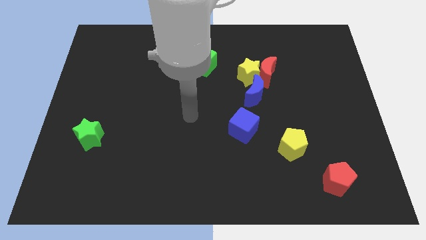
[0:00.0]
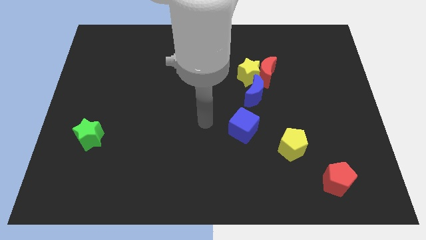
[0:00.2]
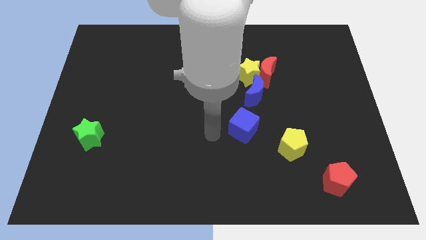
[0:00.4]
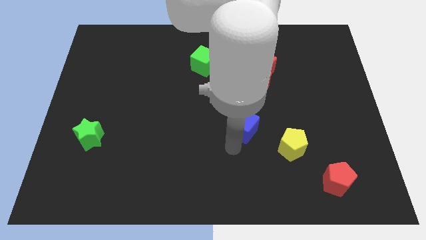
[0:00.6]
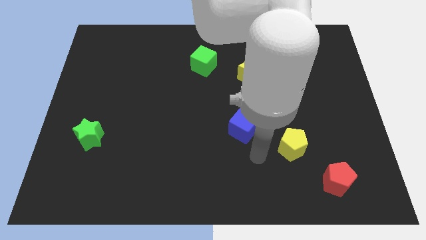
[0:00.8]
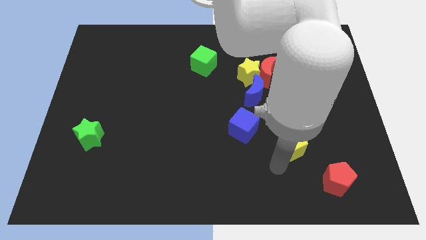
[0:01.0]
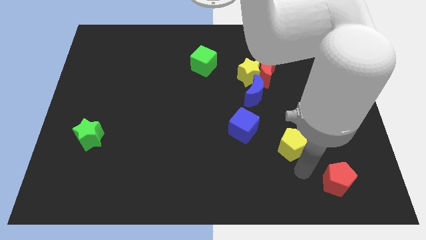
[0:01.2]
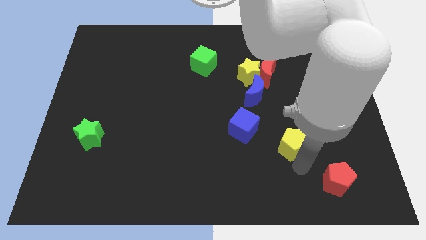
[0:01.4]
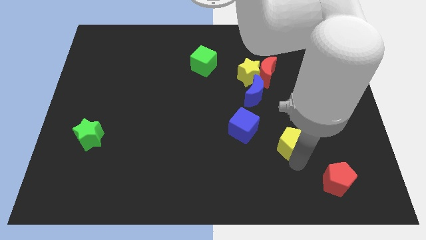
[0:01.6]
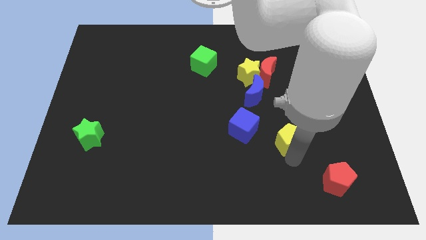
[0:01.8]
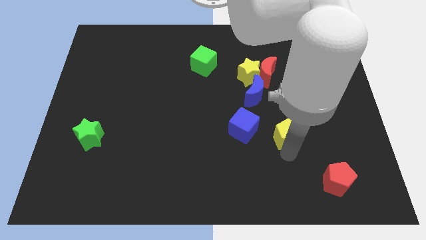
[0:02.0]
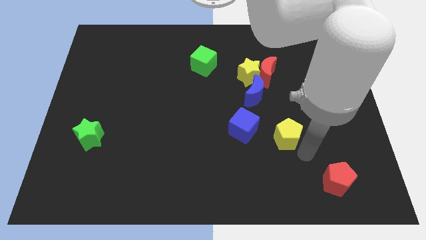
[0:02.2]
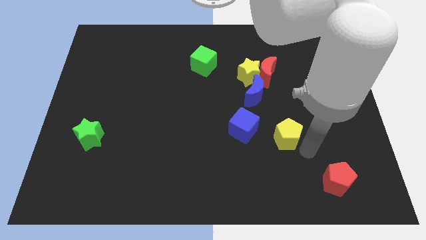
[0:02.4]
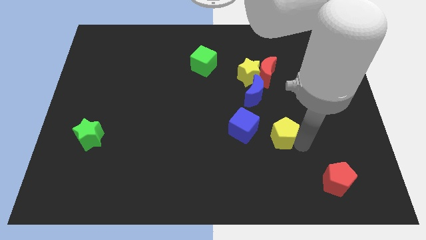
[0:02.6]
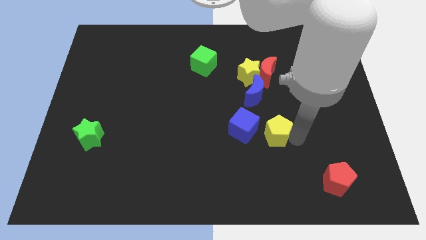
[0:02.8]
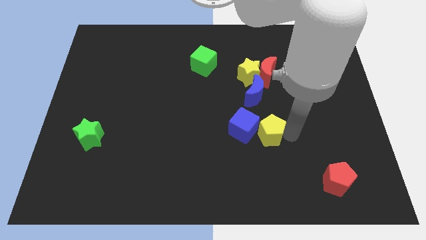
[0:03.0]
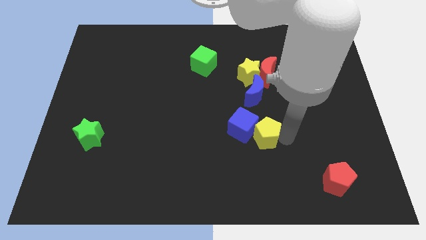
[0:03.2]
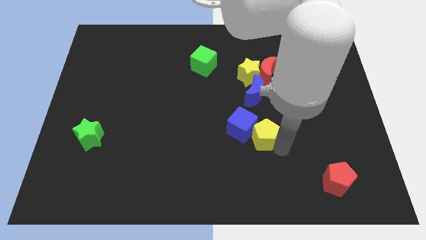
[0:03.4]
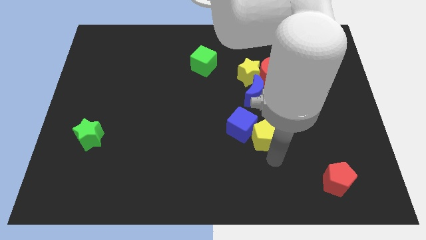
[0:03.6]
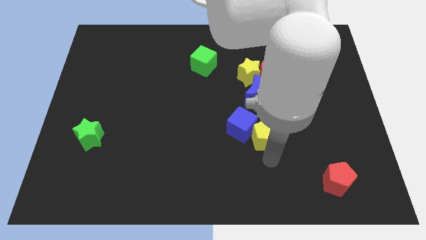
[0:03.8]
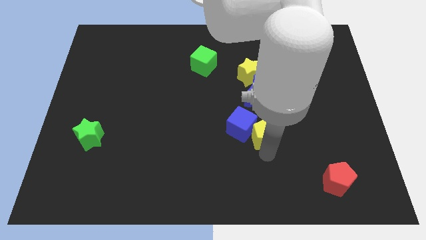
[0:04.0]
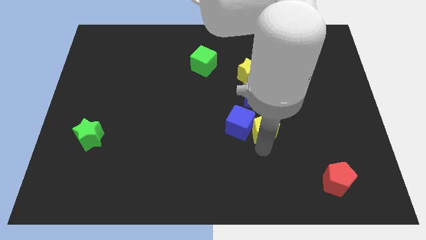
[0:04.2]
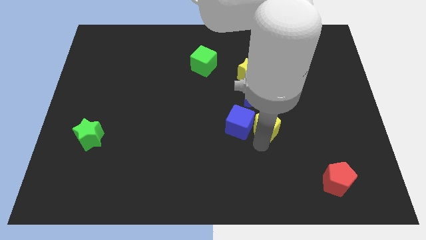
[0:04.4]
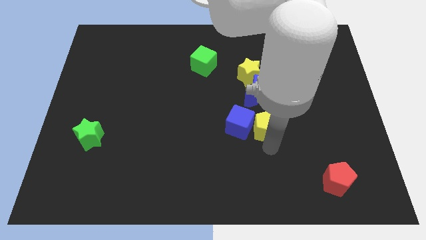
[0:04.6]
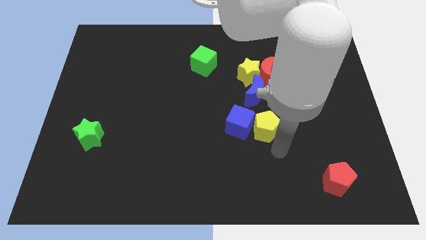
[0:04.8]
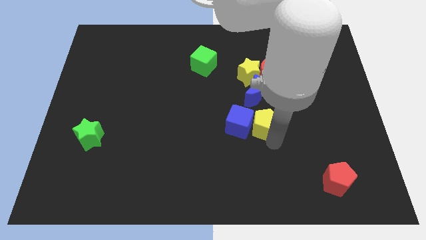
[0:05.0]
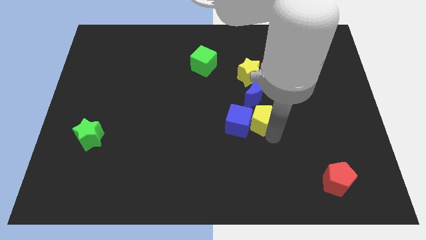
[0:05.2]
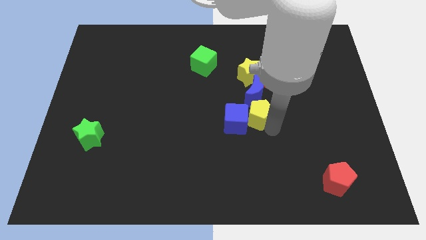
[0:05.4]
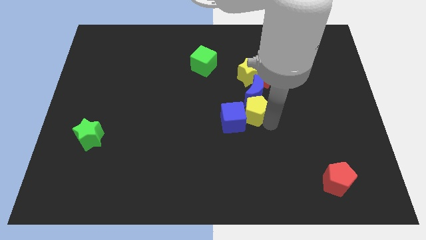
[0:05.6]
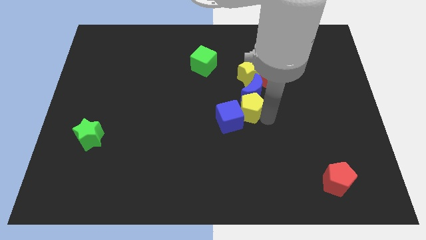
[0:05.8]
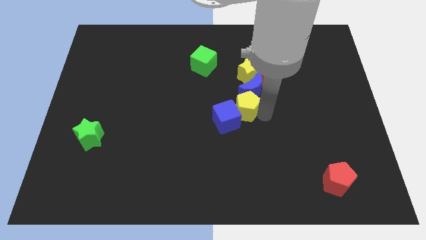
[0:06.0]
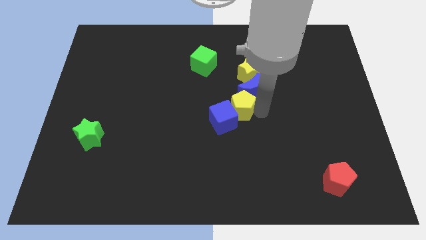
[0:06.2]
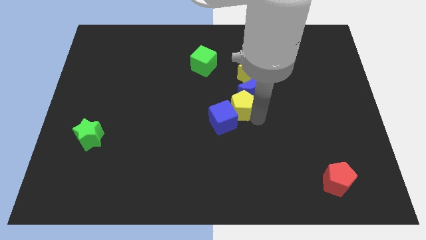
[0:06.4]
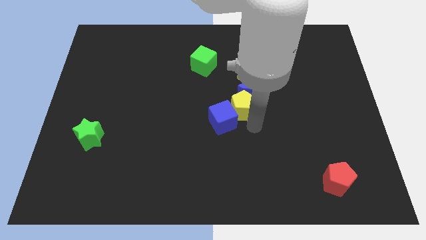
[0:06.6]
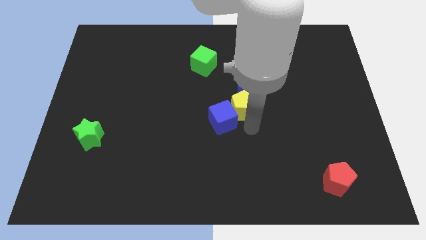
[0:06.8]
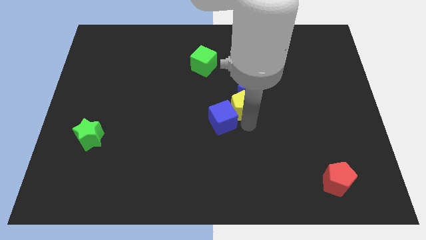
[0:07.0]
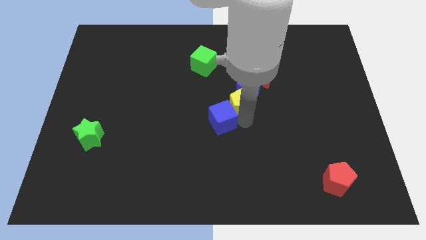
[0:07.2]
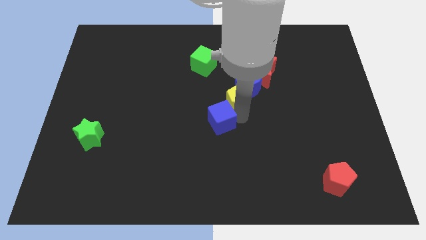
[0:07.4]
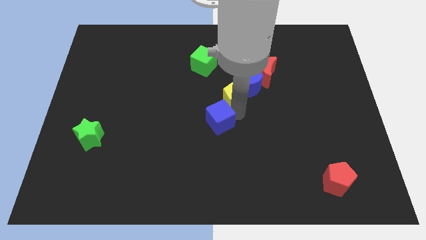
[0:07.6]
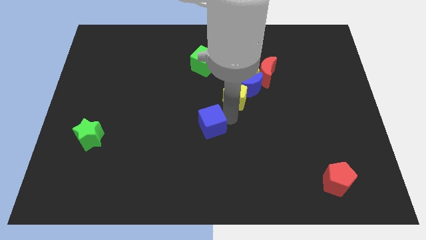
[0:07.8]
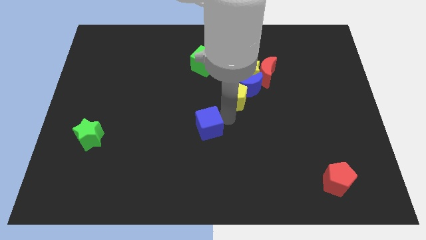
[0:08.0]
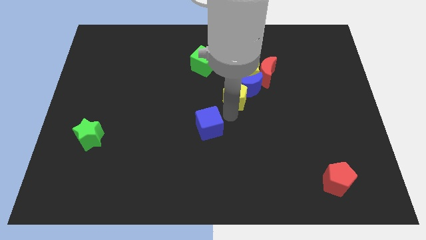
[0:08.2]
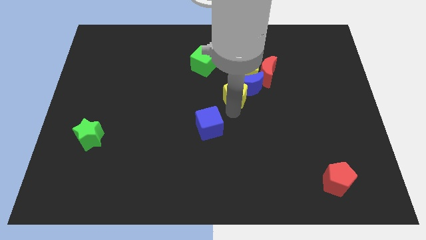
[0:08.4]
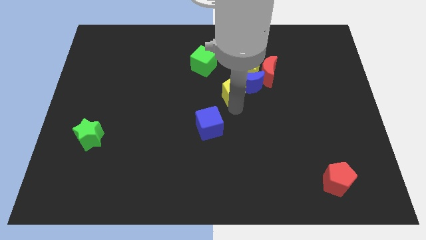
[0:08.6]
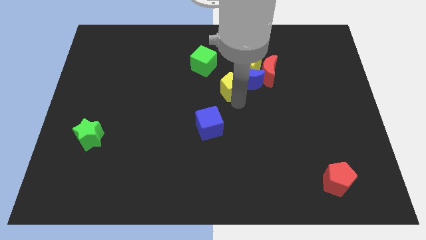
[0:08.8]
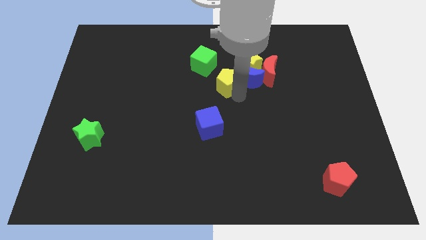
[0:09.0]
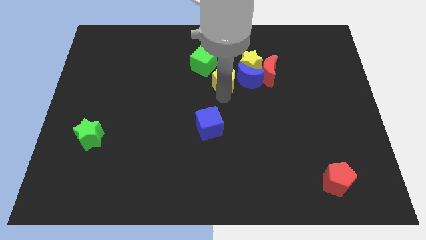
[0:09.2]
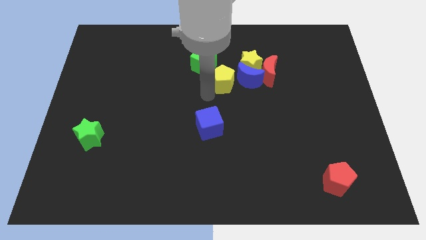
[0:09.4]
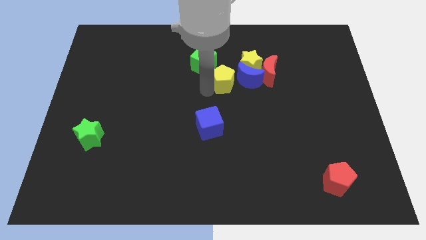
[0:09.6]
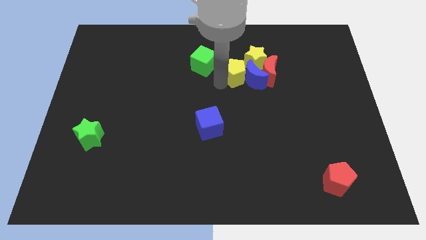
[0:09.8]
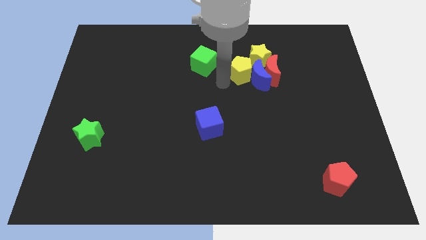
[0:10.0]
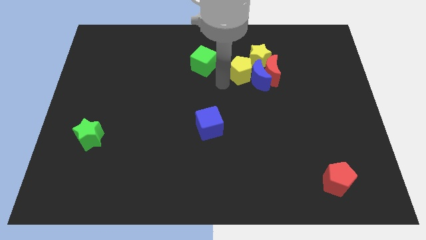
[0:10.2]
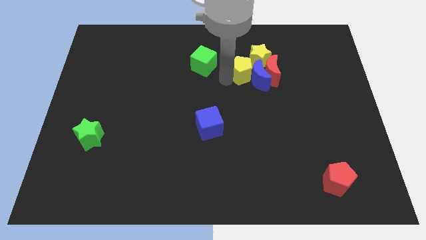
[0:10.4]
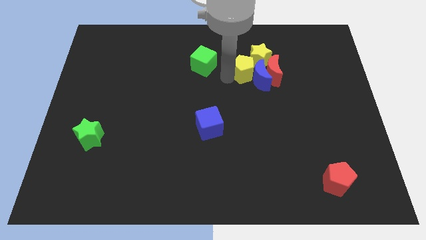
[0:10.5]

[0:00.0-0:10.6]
slide the yellow pentagon close to the yellow star

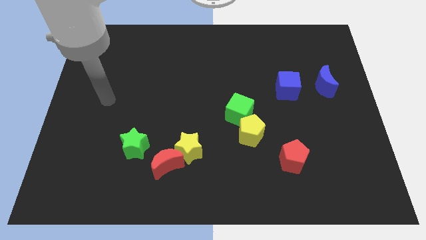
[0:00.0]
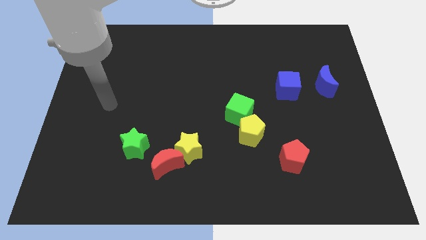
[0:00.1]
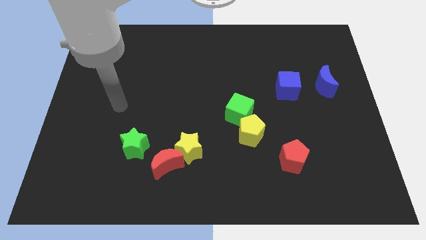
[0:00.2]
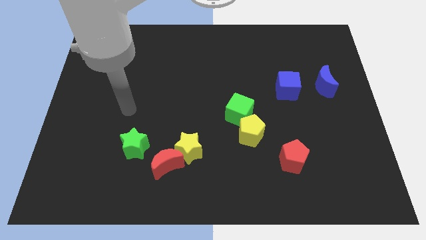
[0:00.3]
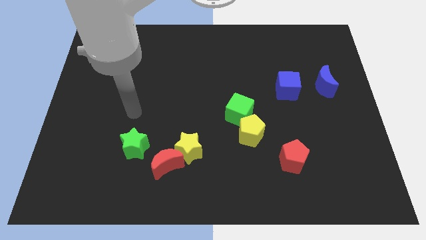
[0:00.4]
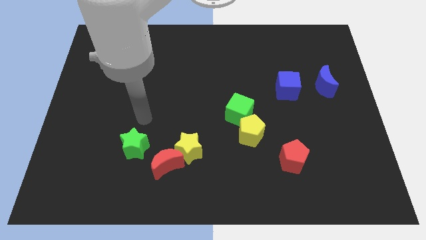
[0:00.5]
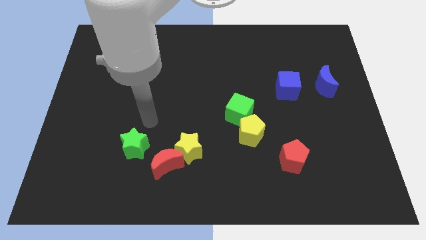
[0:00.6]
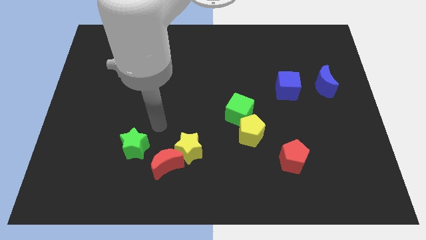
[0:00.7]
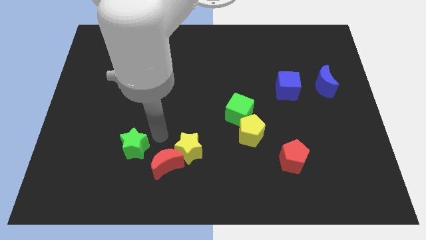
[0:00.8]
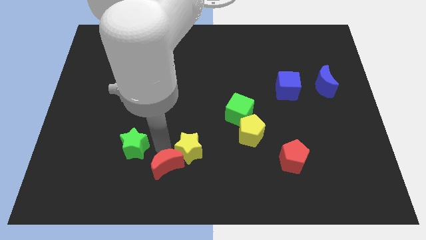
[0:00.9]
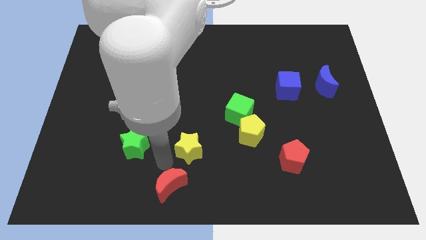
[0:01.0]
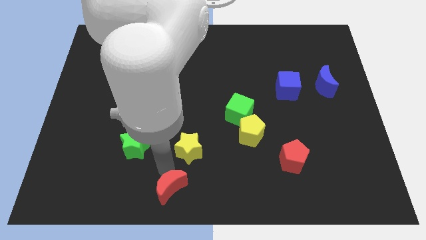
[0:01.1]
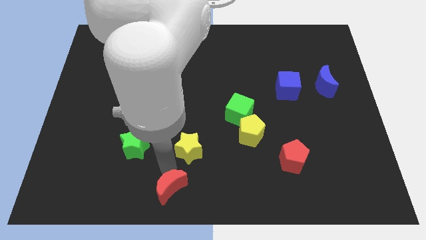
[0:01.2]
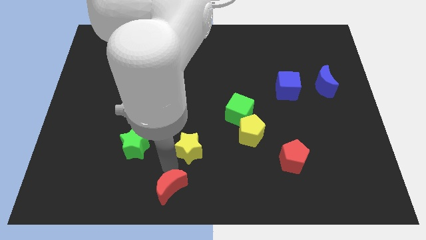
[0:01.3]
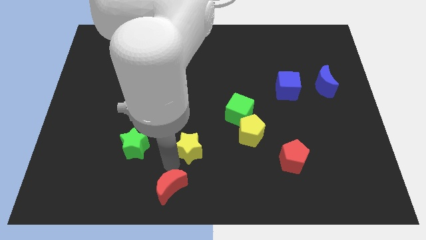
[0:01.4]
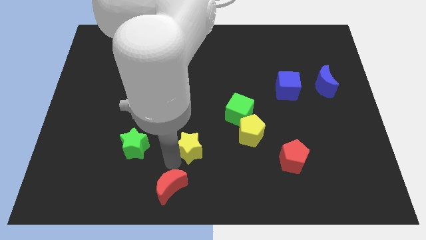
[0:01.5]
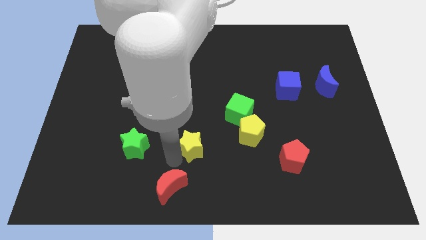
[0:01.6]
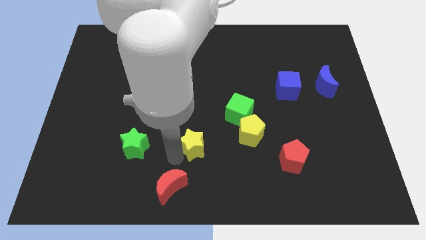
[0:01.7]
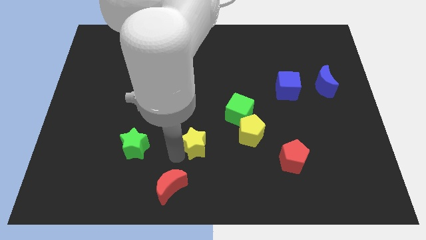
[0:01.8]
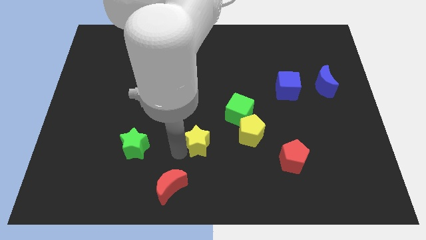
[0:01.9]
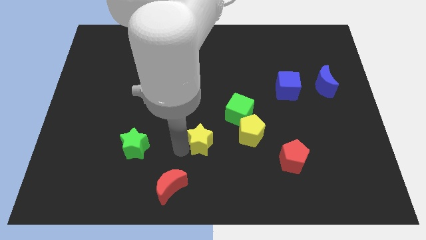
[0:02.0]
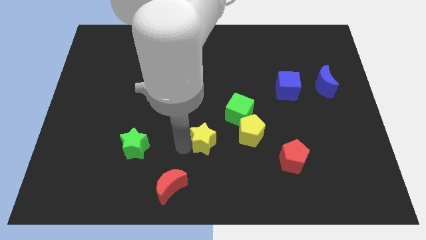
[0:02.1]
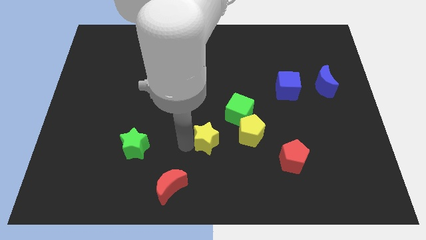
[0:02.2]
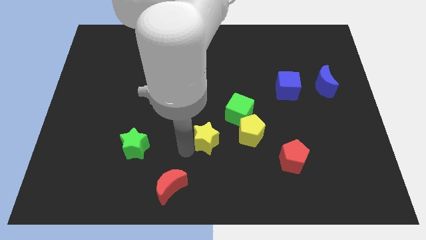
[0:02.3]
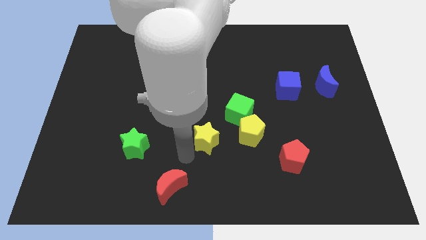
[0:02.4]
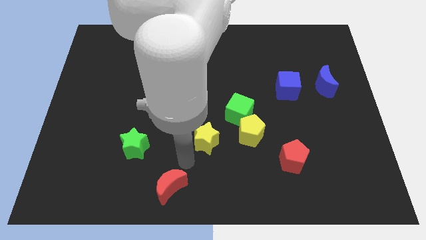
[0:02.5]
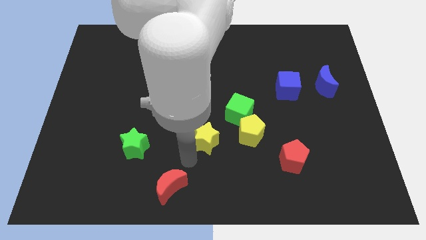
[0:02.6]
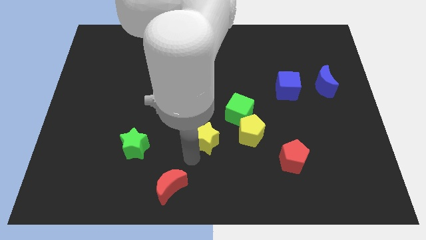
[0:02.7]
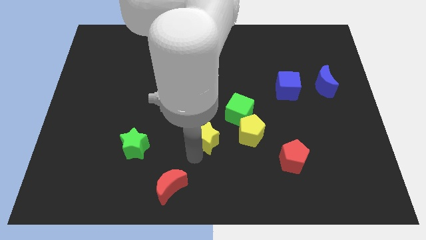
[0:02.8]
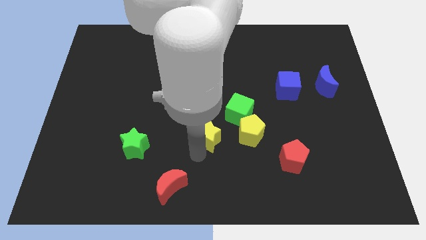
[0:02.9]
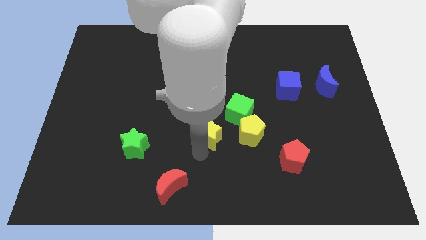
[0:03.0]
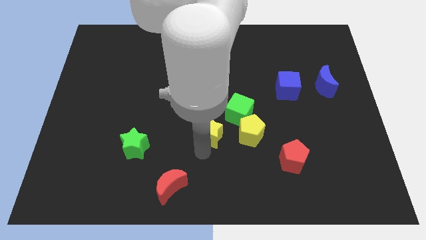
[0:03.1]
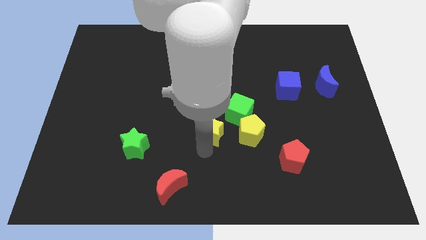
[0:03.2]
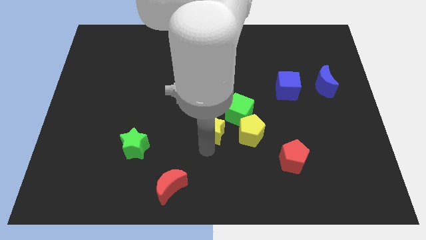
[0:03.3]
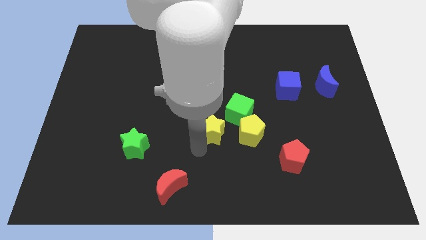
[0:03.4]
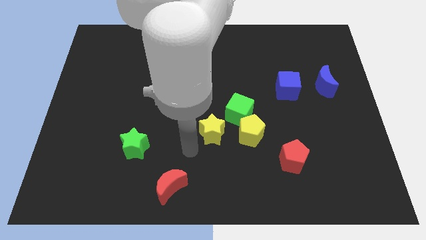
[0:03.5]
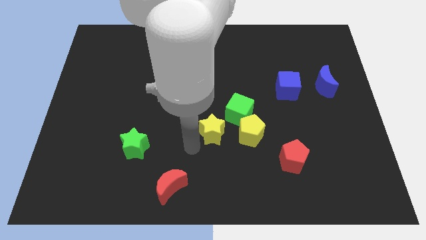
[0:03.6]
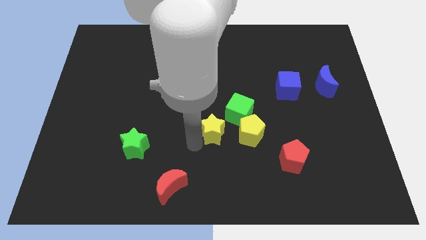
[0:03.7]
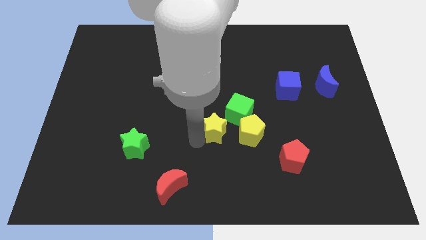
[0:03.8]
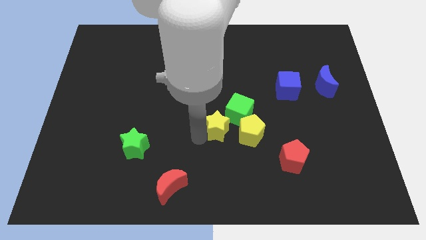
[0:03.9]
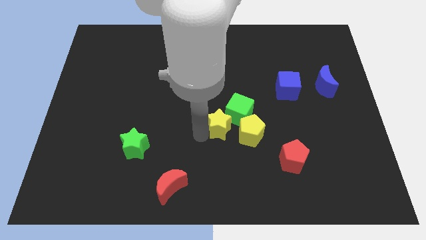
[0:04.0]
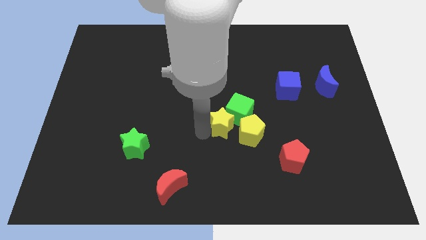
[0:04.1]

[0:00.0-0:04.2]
move the yellow star to the green cube
